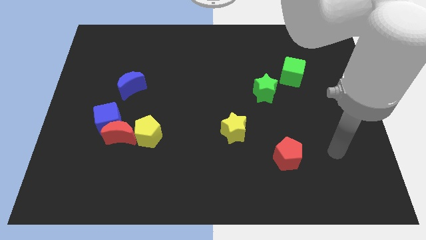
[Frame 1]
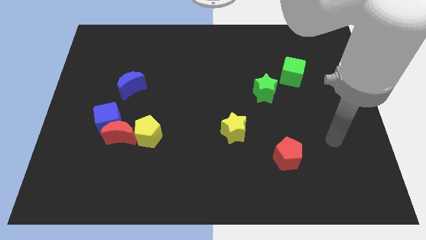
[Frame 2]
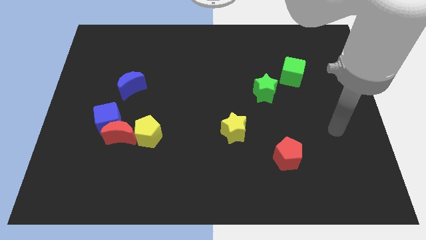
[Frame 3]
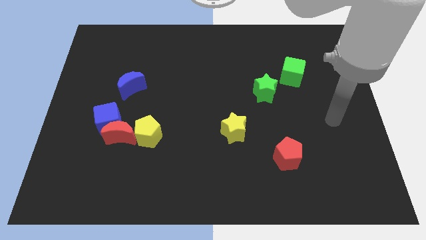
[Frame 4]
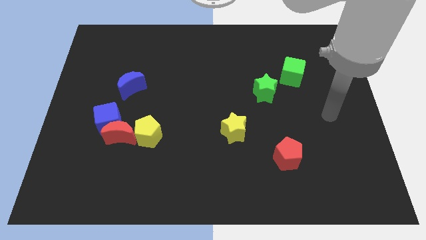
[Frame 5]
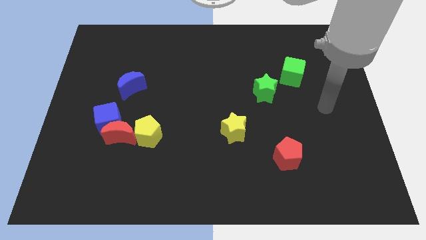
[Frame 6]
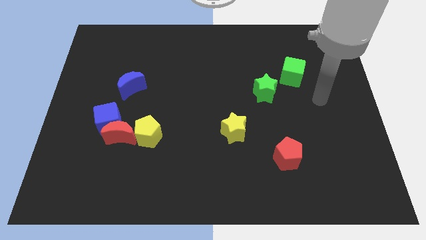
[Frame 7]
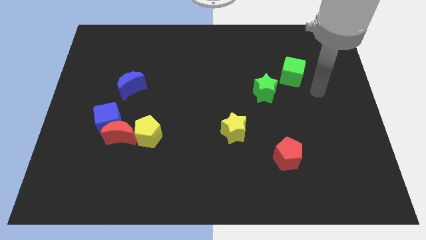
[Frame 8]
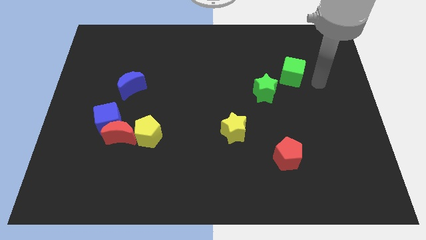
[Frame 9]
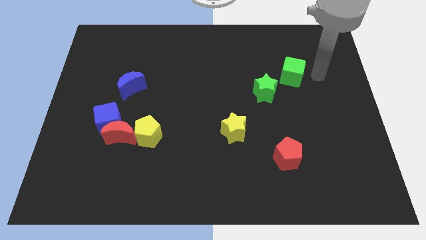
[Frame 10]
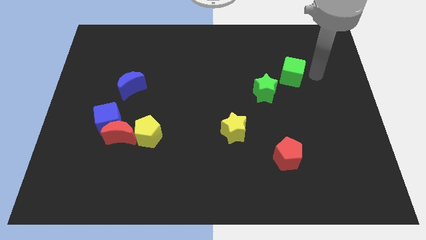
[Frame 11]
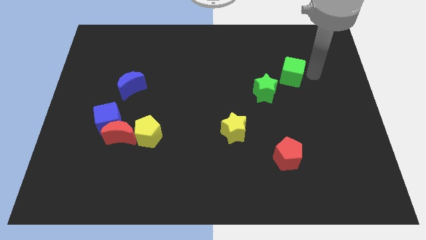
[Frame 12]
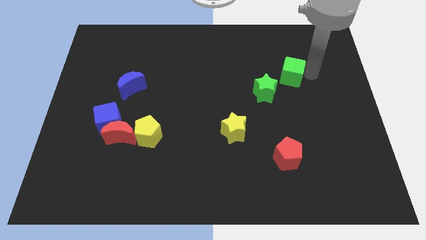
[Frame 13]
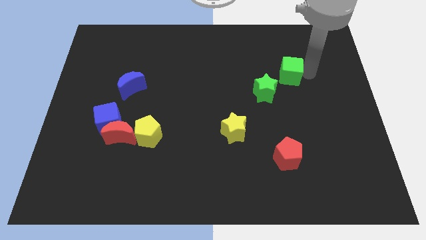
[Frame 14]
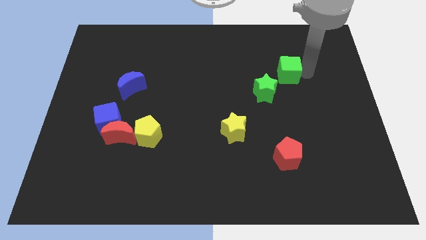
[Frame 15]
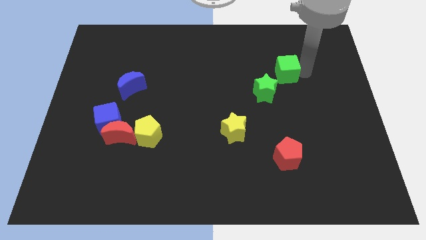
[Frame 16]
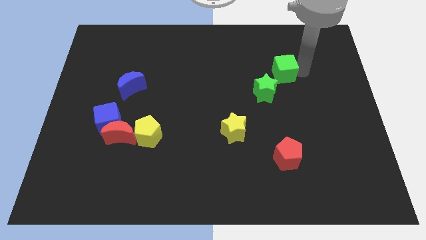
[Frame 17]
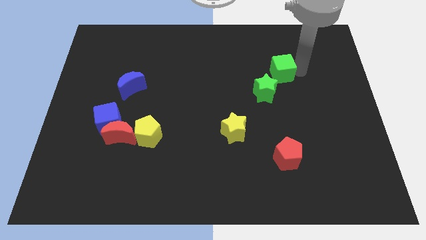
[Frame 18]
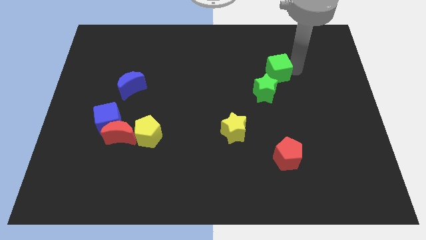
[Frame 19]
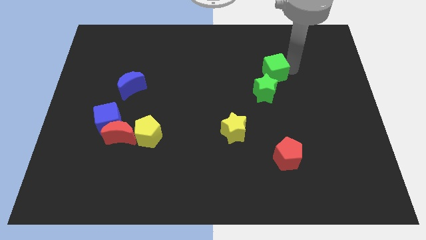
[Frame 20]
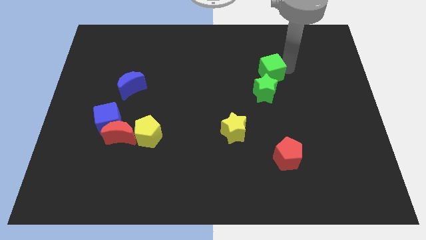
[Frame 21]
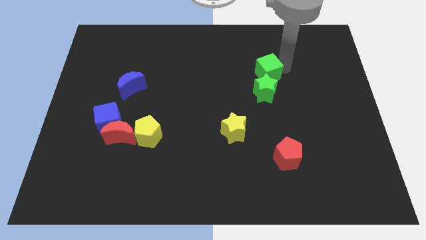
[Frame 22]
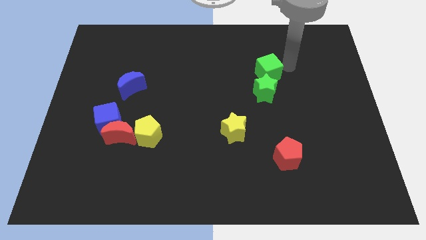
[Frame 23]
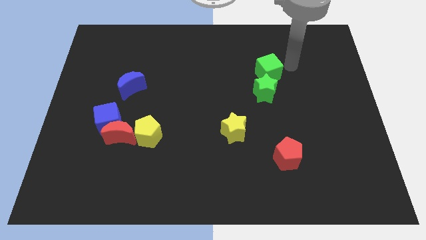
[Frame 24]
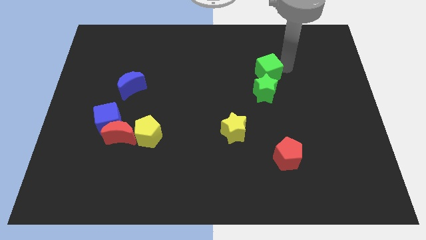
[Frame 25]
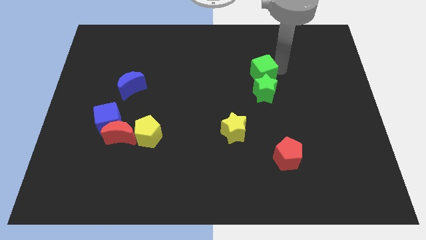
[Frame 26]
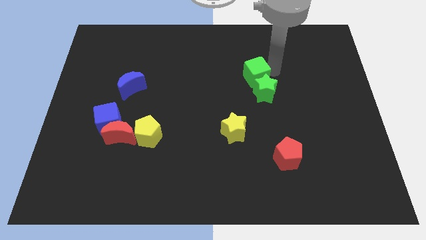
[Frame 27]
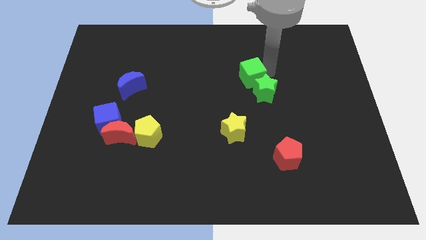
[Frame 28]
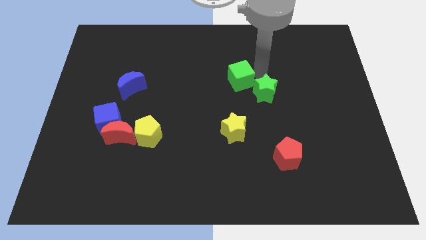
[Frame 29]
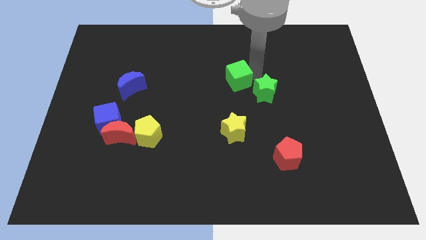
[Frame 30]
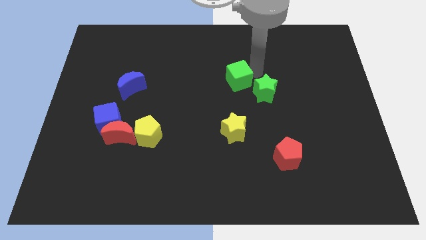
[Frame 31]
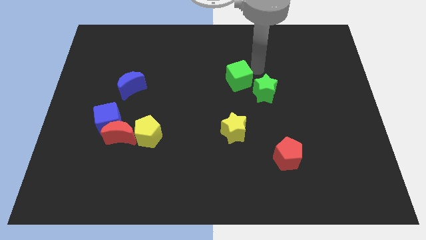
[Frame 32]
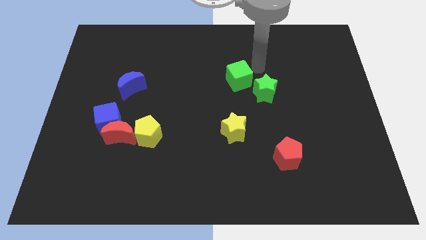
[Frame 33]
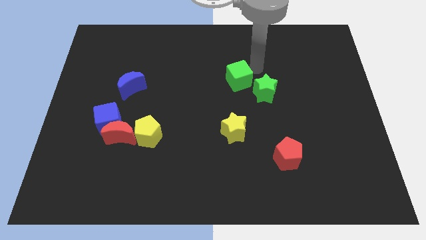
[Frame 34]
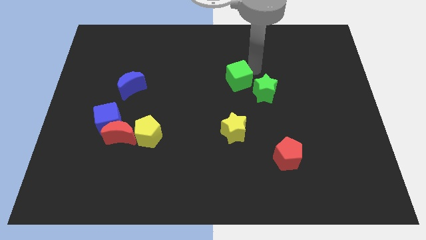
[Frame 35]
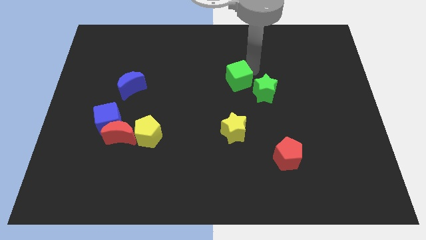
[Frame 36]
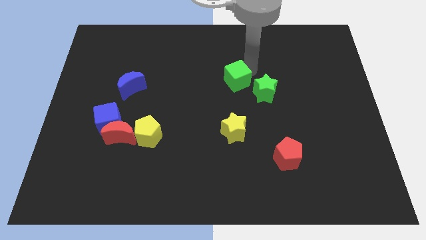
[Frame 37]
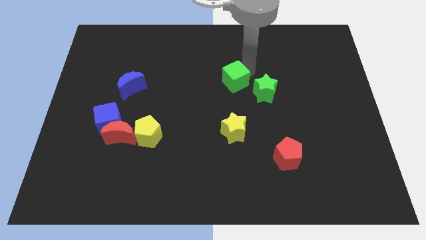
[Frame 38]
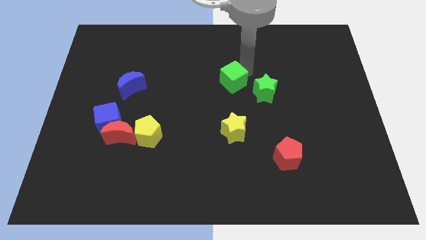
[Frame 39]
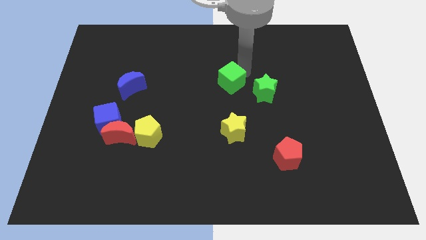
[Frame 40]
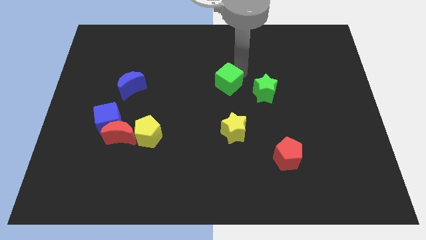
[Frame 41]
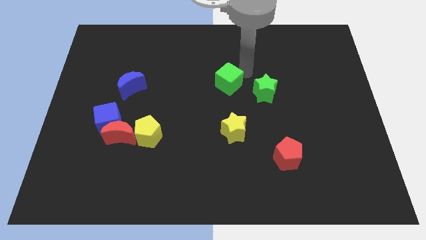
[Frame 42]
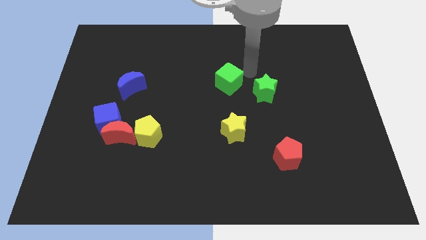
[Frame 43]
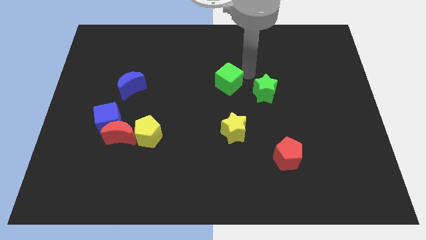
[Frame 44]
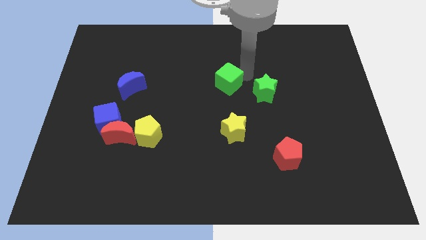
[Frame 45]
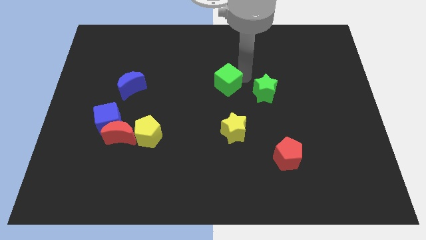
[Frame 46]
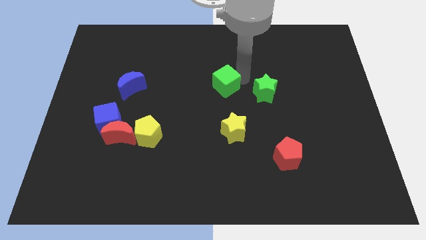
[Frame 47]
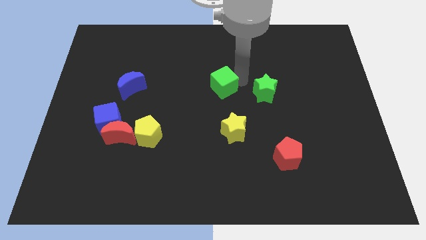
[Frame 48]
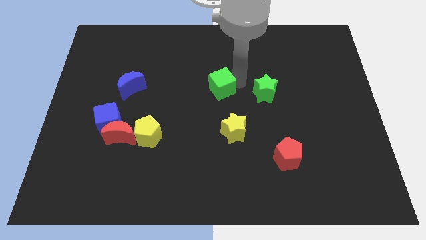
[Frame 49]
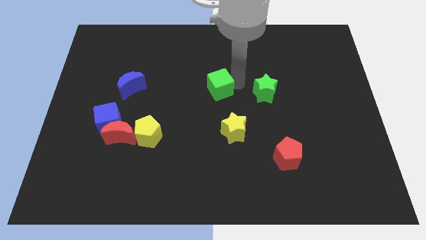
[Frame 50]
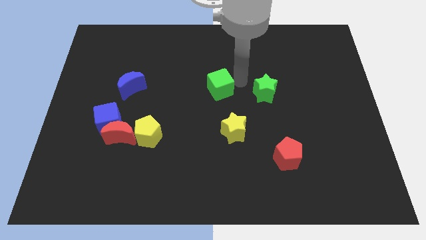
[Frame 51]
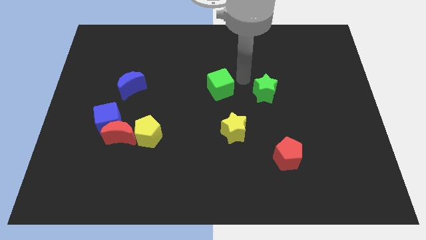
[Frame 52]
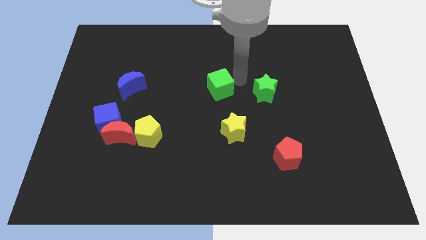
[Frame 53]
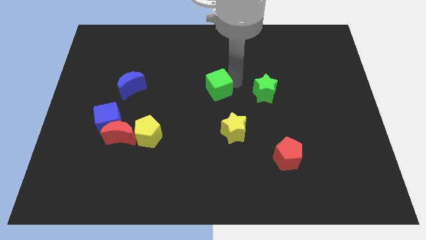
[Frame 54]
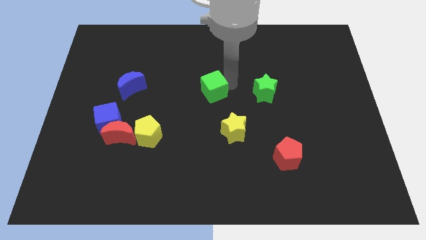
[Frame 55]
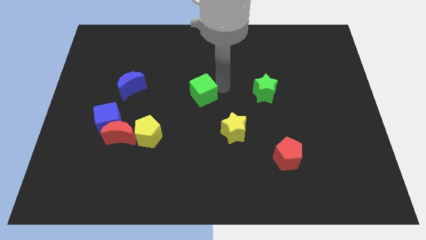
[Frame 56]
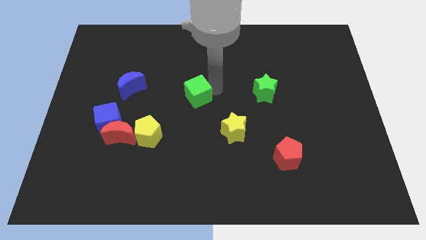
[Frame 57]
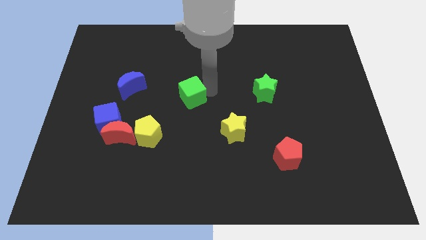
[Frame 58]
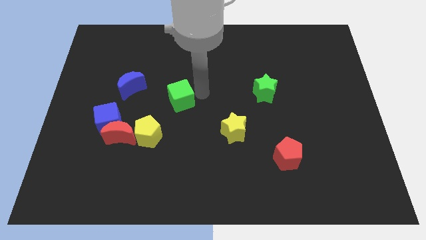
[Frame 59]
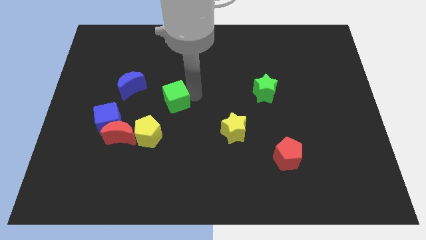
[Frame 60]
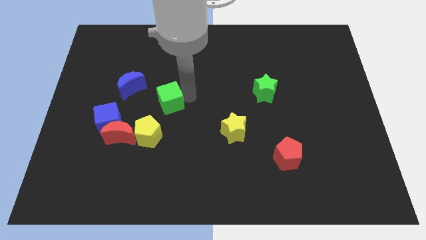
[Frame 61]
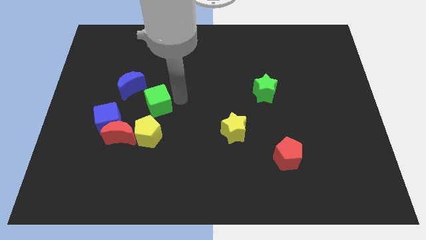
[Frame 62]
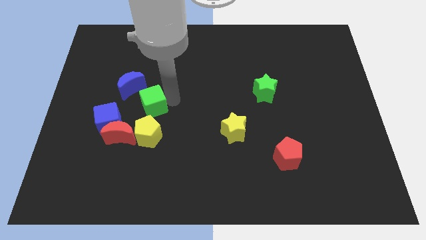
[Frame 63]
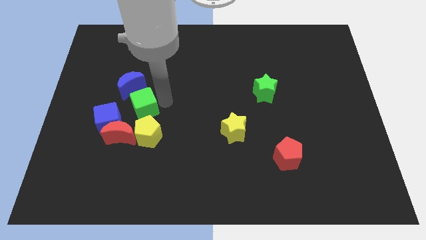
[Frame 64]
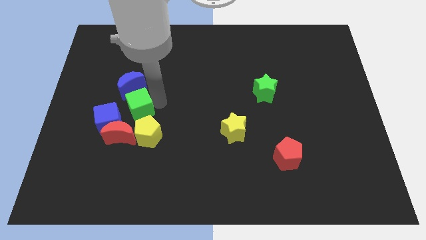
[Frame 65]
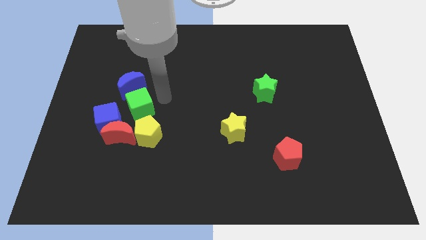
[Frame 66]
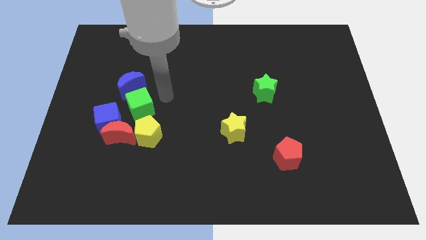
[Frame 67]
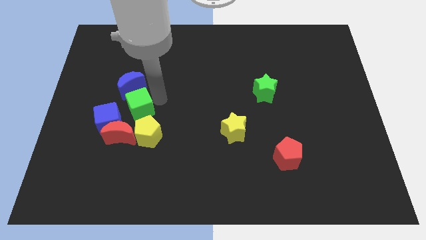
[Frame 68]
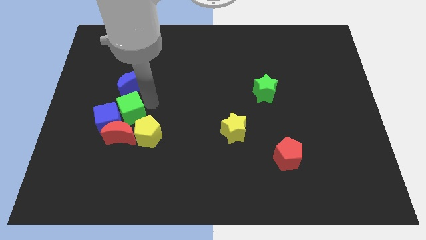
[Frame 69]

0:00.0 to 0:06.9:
push the green cube next to the blue cube
